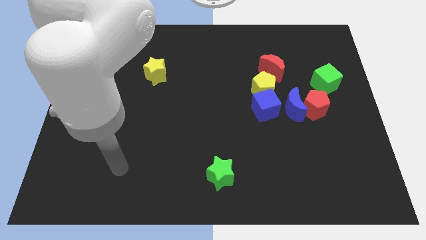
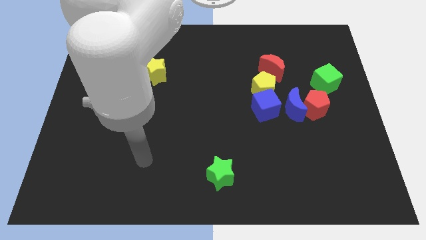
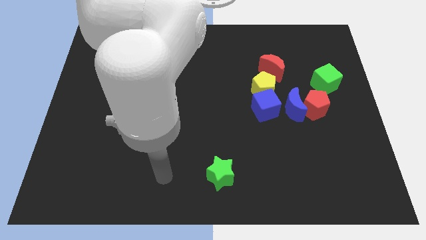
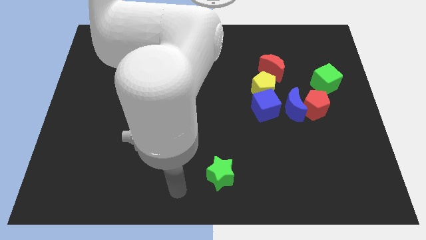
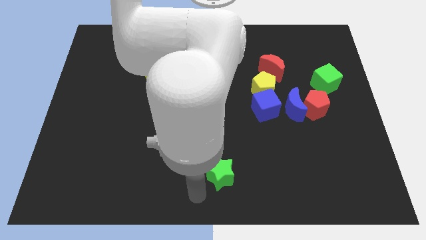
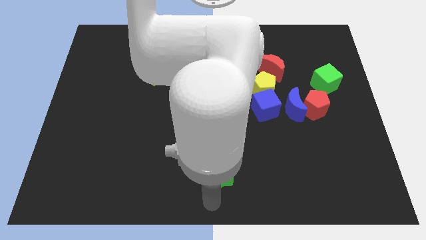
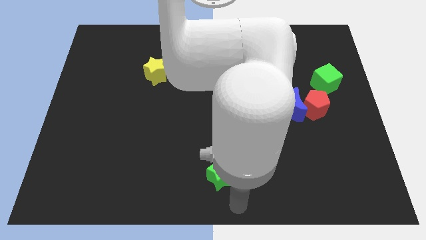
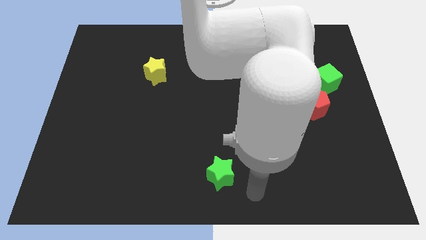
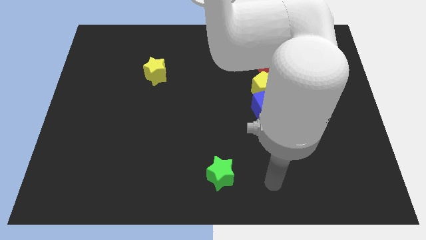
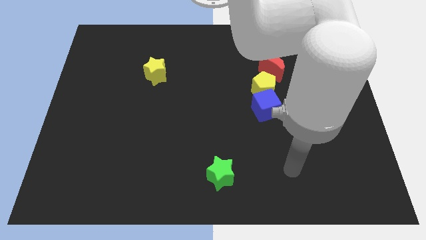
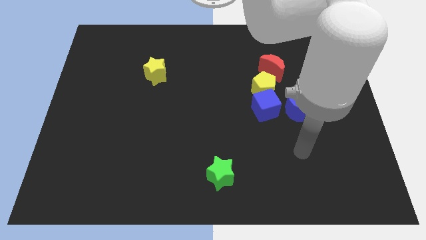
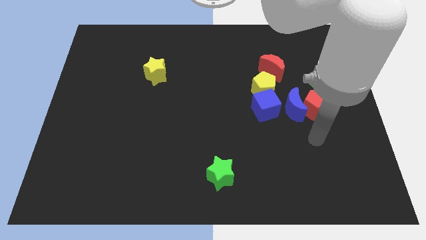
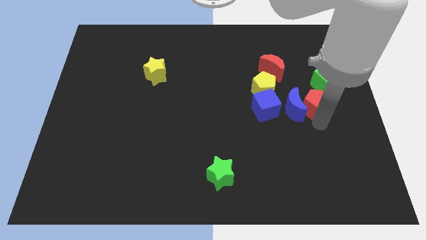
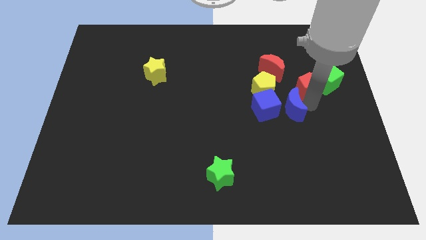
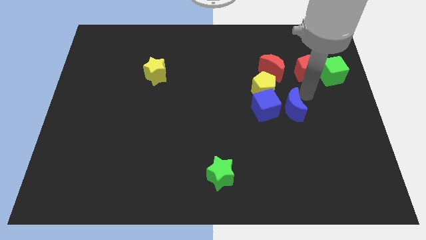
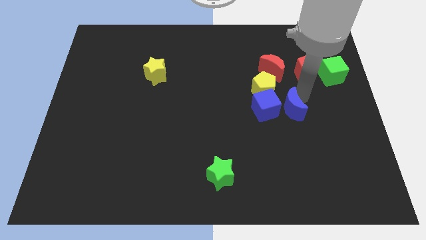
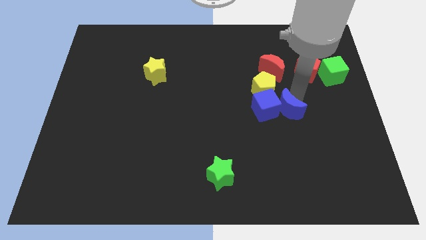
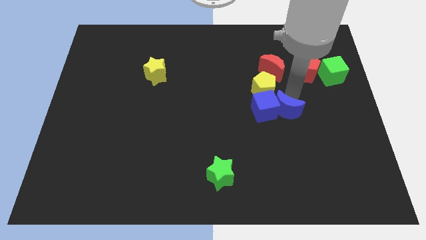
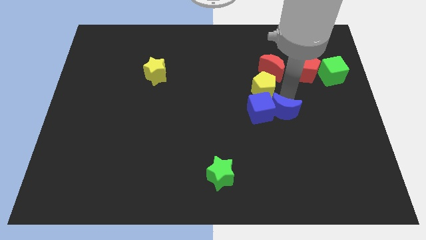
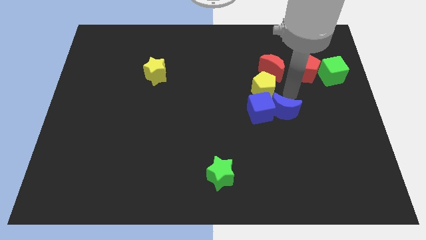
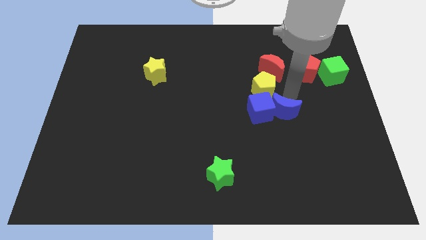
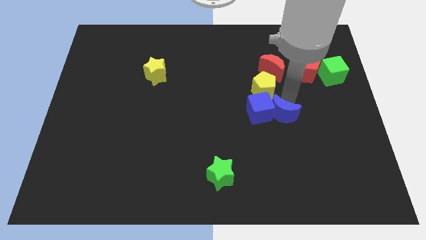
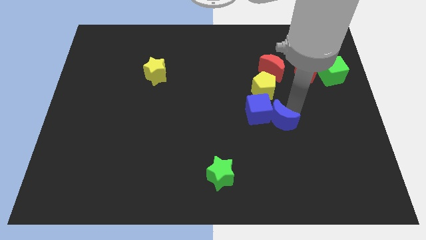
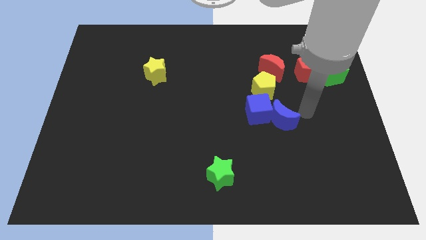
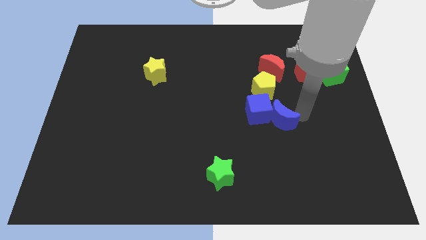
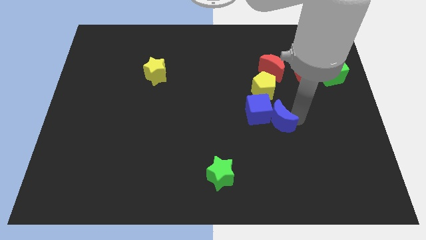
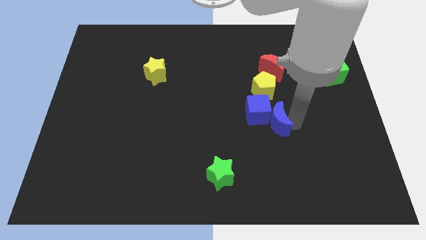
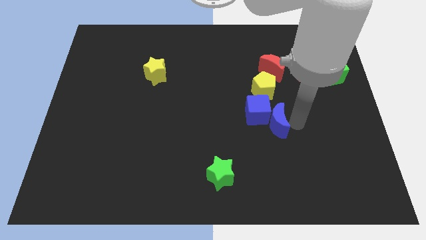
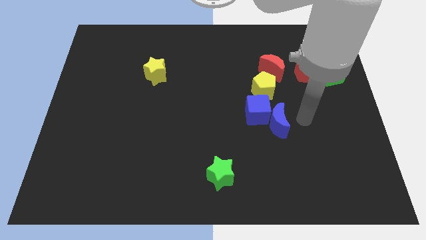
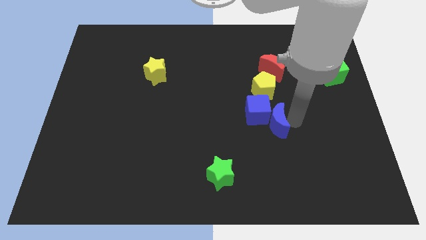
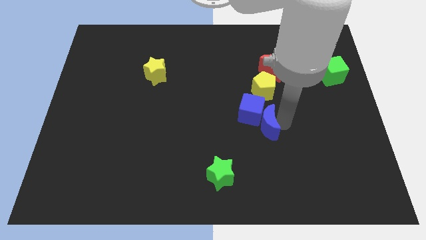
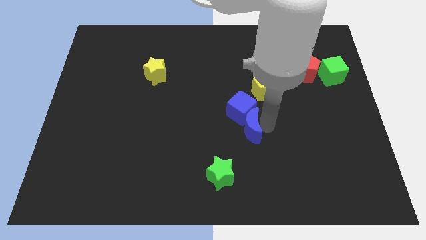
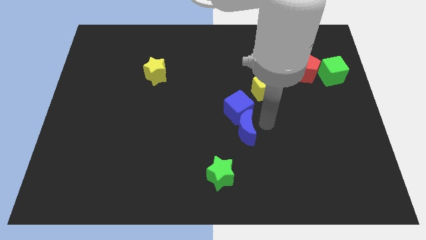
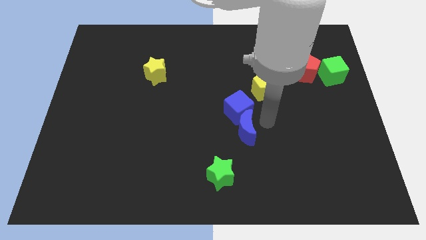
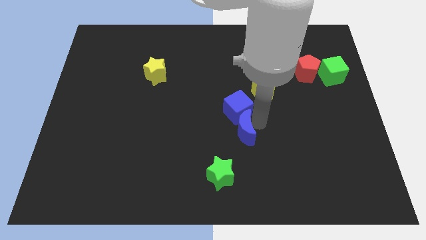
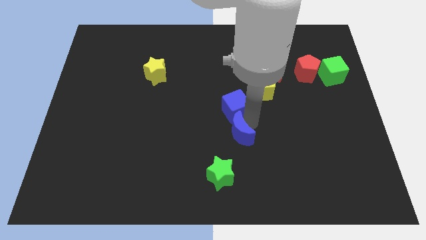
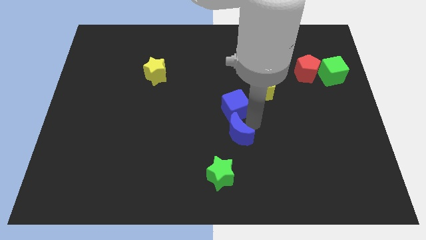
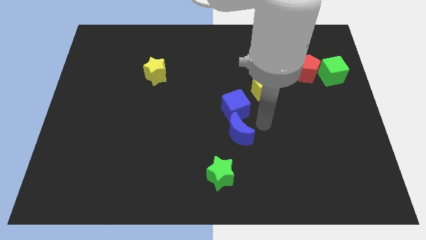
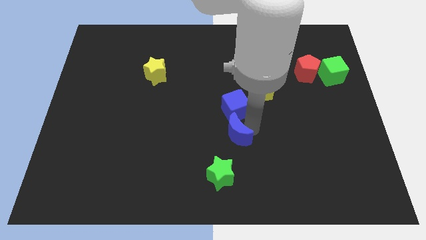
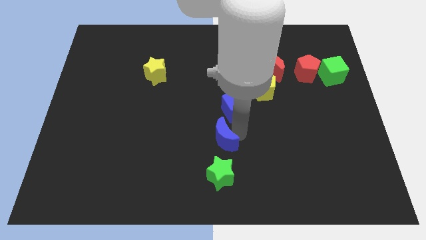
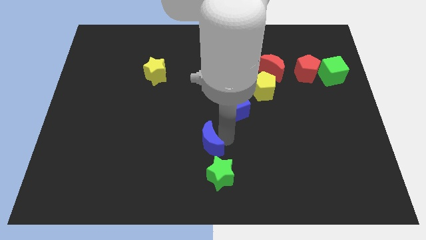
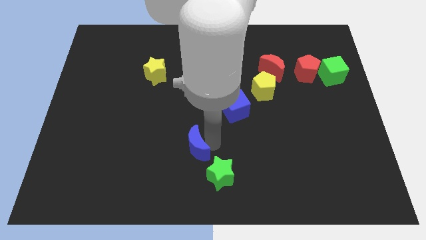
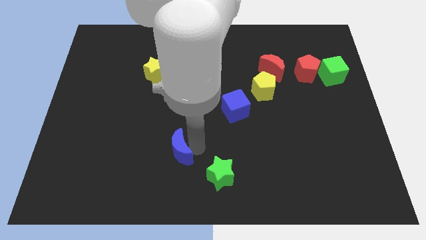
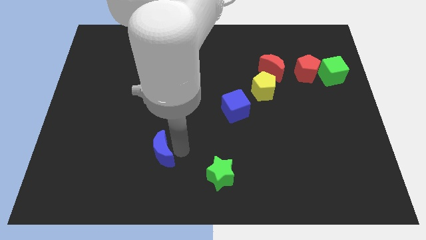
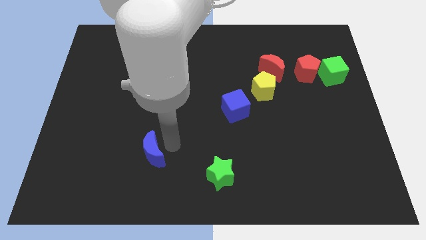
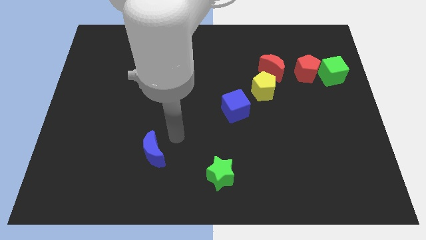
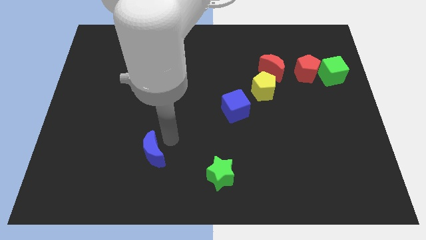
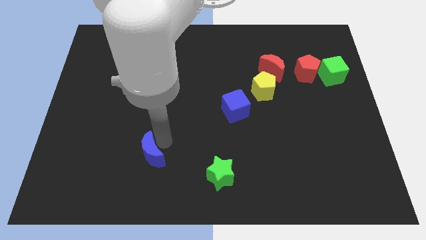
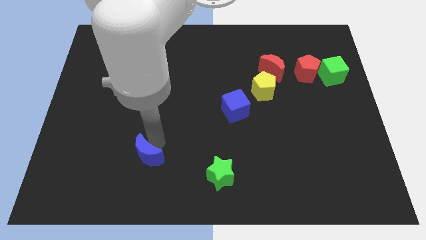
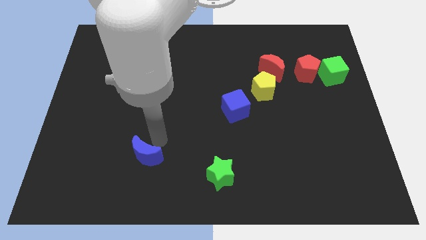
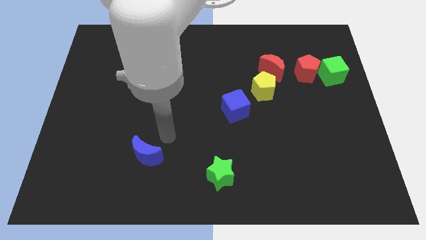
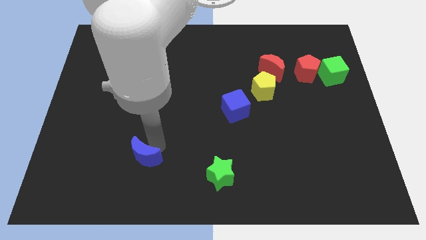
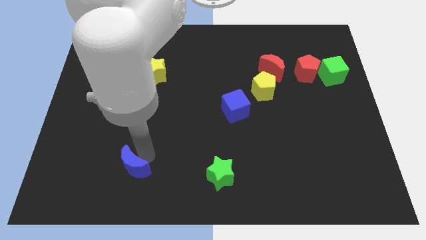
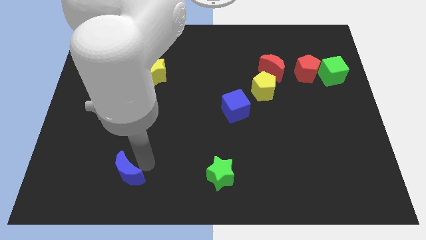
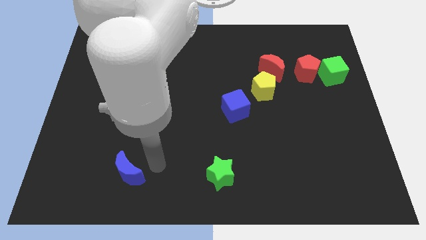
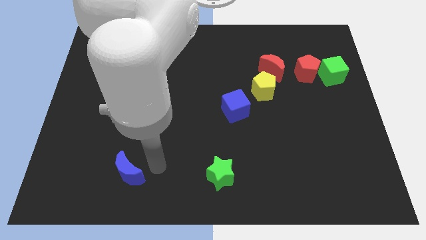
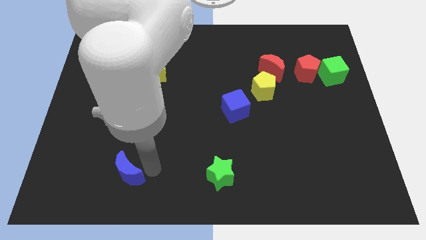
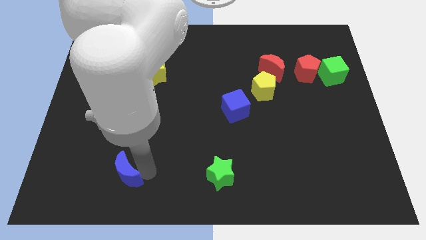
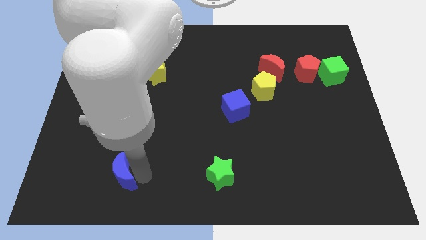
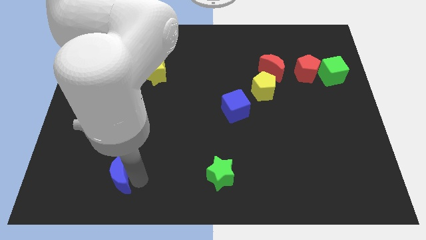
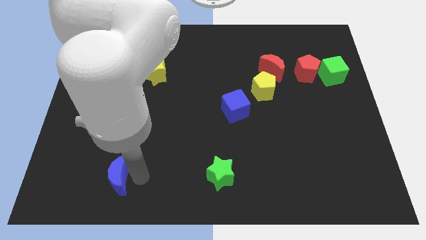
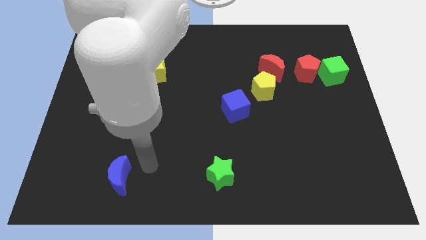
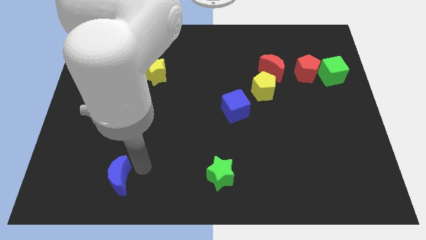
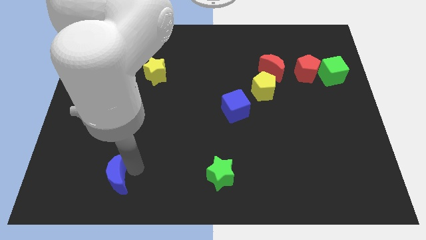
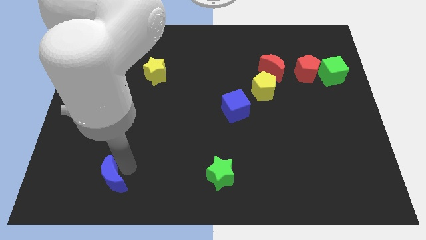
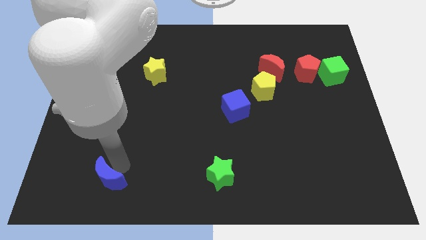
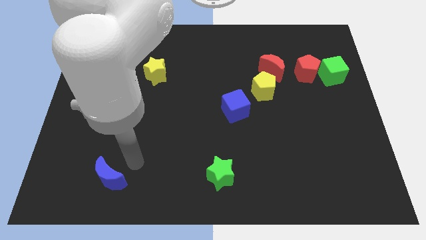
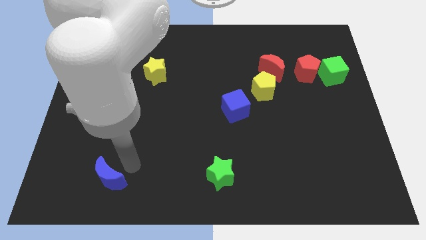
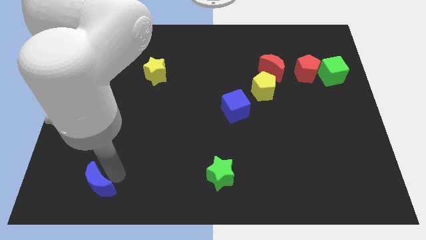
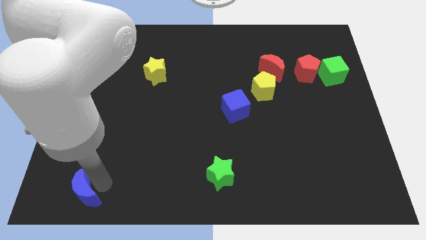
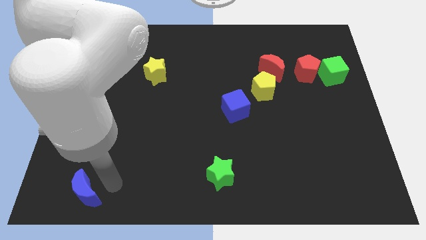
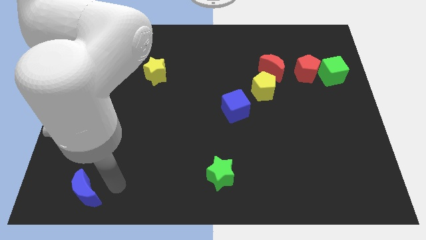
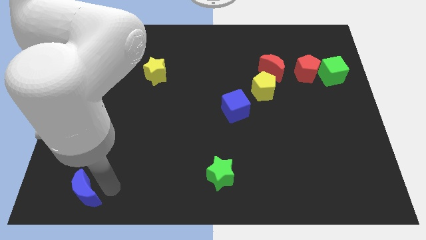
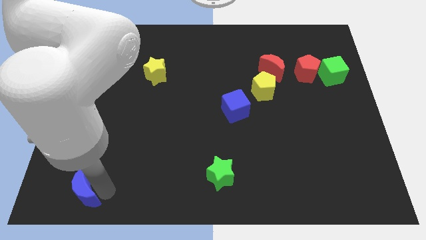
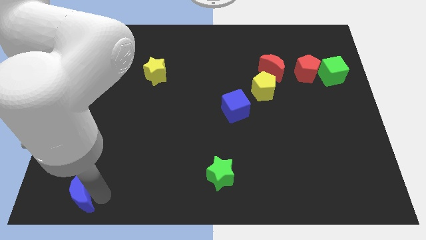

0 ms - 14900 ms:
put the blue moon to the bottom left corner
